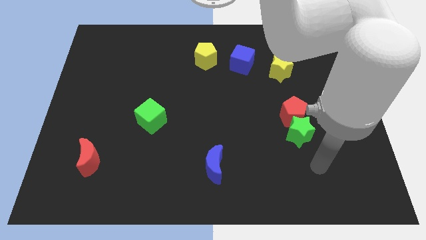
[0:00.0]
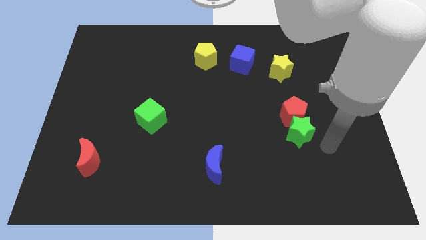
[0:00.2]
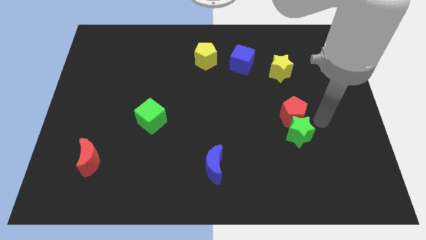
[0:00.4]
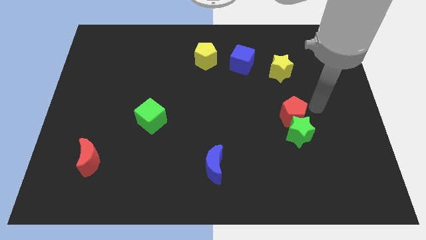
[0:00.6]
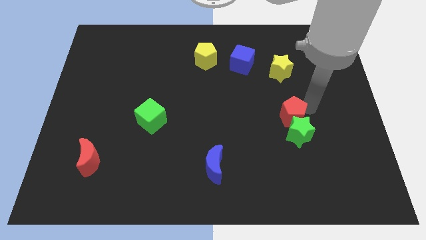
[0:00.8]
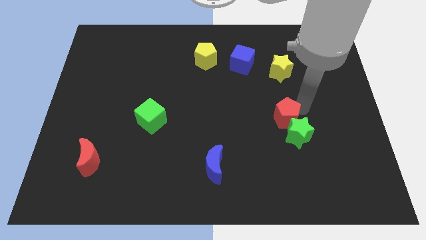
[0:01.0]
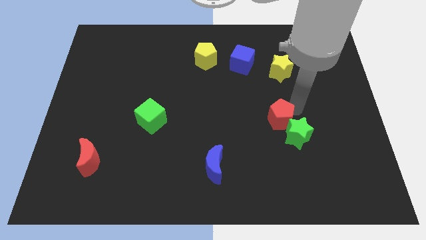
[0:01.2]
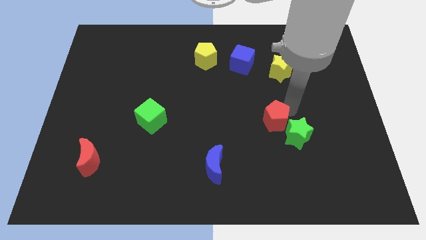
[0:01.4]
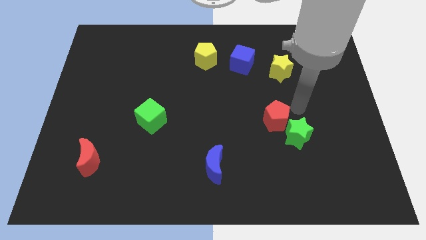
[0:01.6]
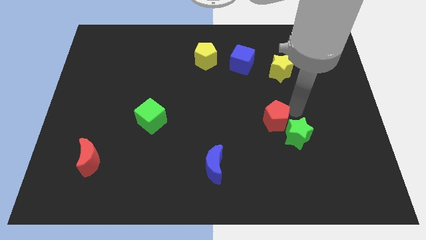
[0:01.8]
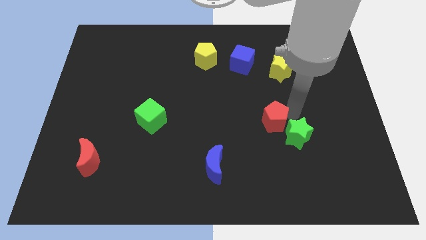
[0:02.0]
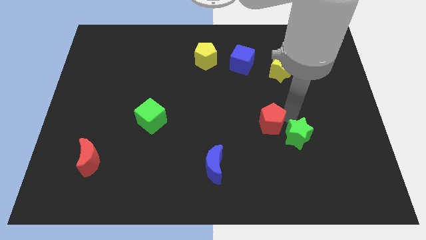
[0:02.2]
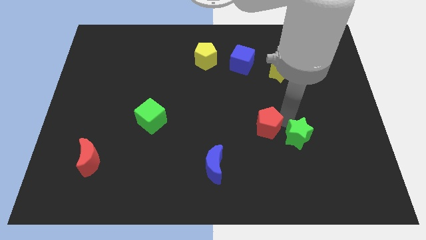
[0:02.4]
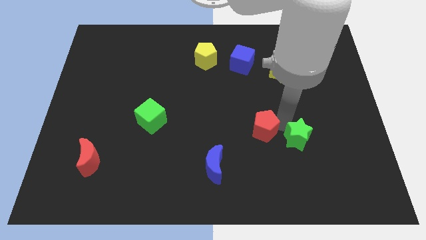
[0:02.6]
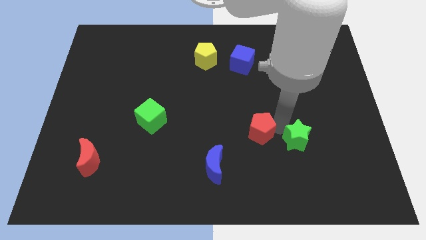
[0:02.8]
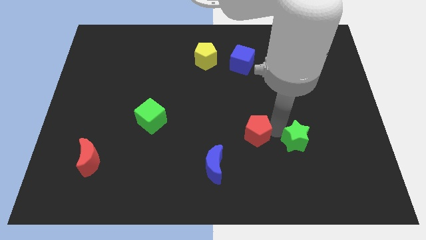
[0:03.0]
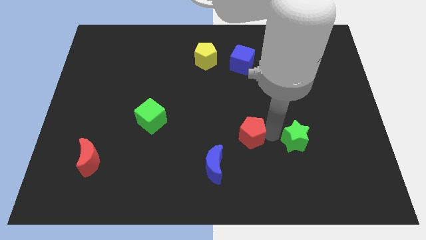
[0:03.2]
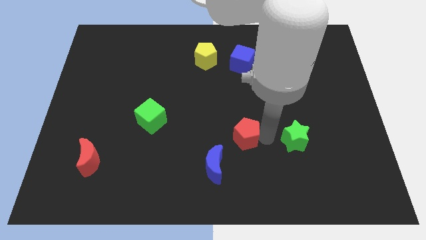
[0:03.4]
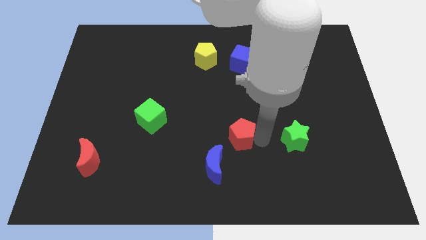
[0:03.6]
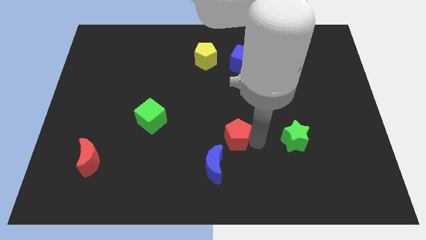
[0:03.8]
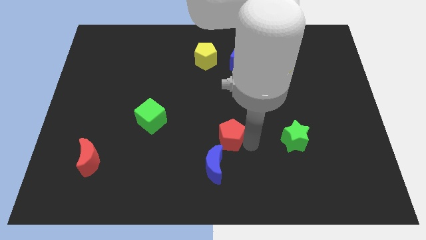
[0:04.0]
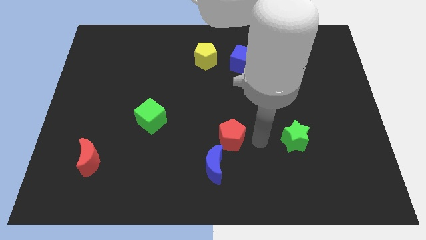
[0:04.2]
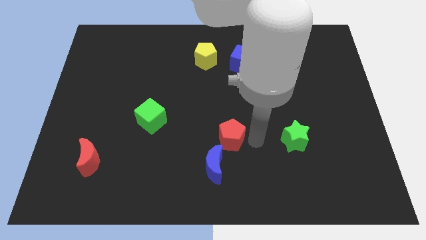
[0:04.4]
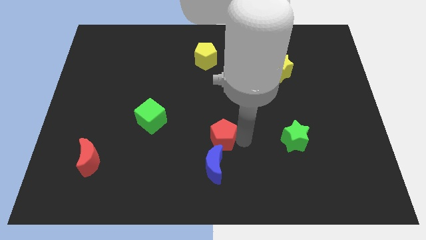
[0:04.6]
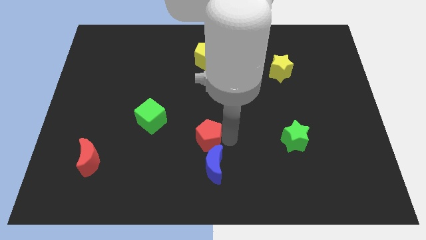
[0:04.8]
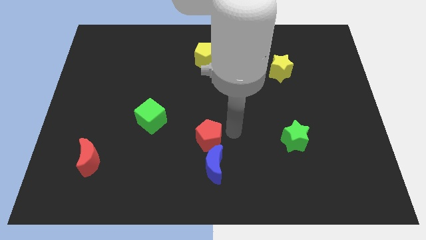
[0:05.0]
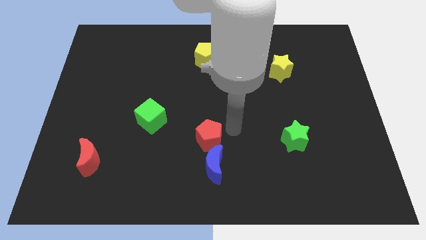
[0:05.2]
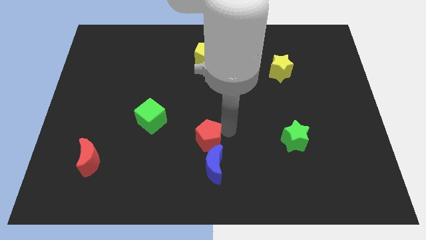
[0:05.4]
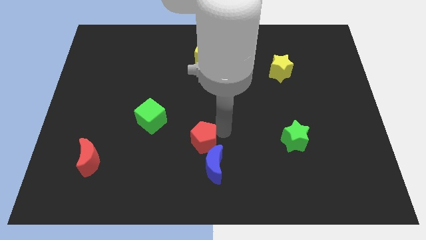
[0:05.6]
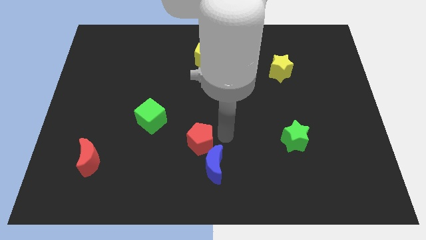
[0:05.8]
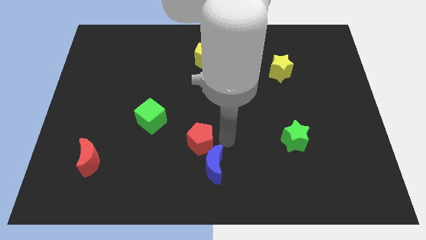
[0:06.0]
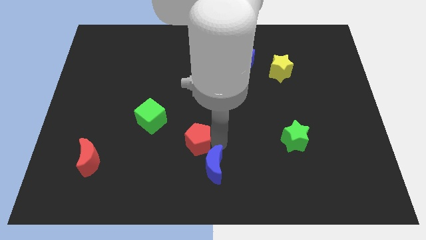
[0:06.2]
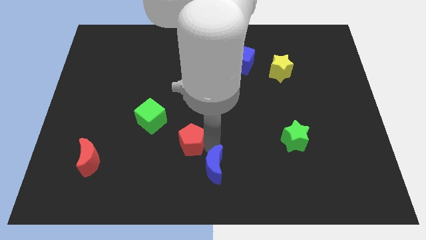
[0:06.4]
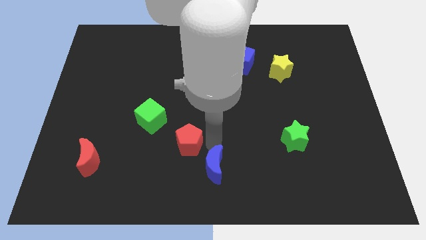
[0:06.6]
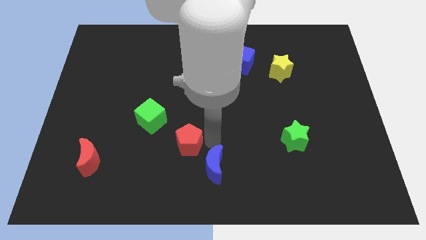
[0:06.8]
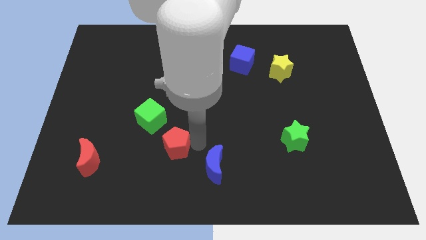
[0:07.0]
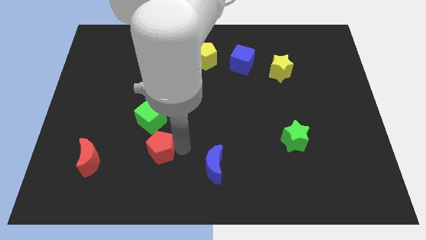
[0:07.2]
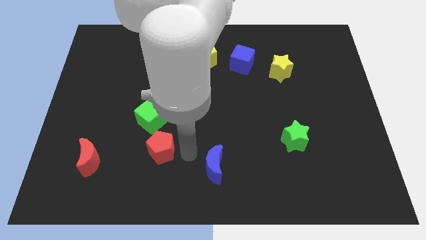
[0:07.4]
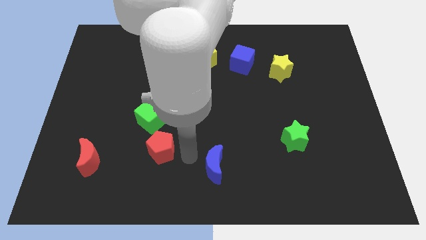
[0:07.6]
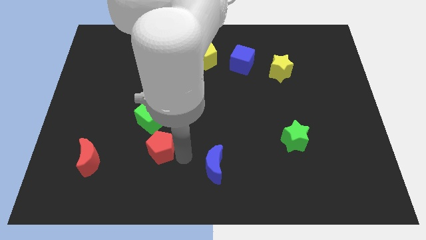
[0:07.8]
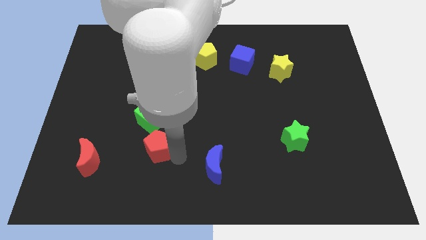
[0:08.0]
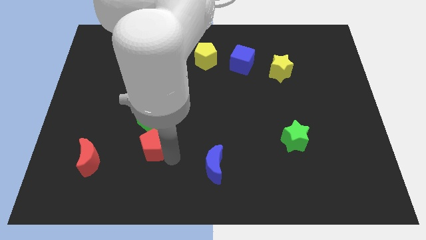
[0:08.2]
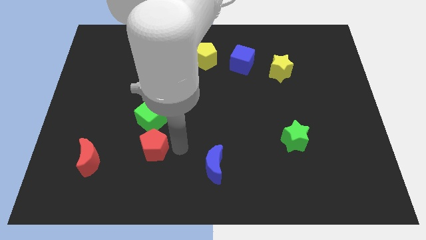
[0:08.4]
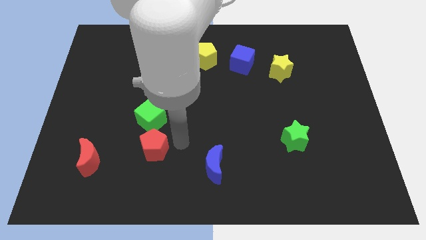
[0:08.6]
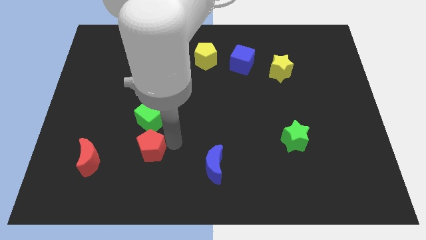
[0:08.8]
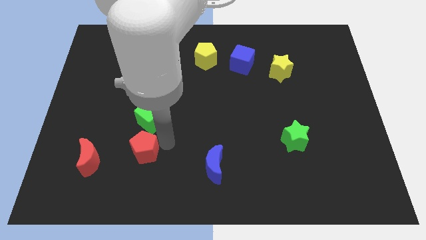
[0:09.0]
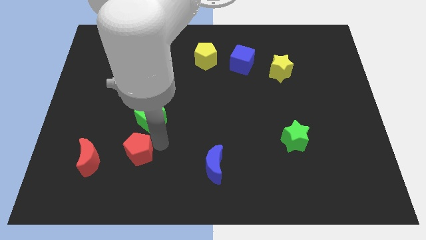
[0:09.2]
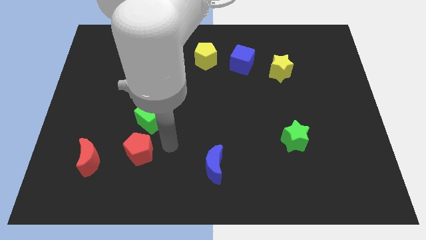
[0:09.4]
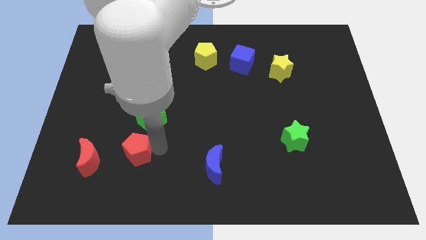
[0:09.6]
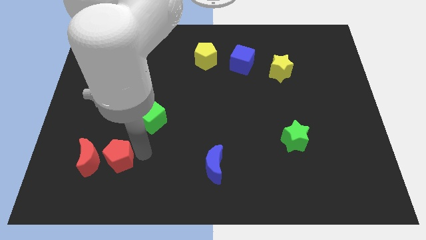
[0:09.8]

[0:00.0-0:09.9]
slide the red pentagon to the red moon

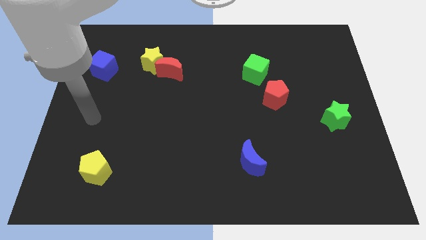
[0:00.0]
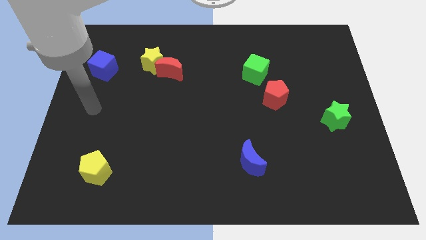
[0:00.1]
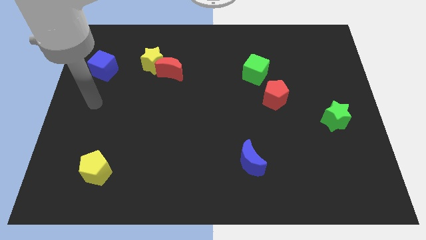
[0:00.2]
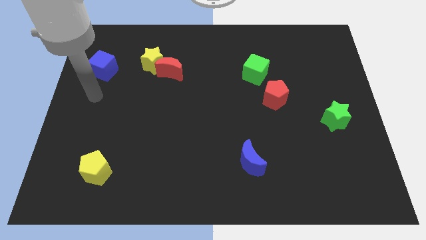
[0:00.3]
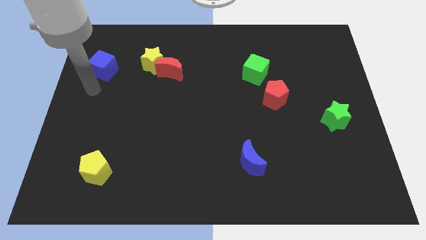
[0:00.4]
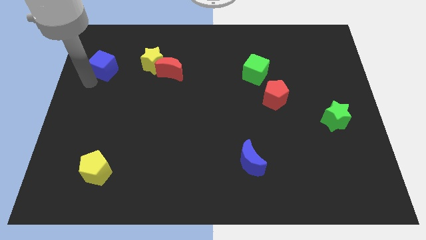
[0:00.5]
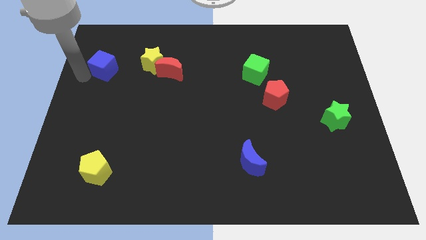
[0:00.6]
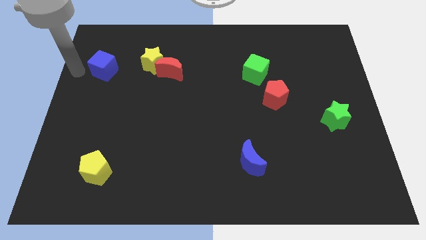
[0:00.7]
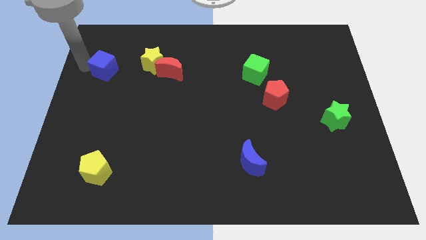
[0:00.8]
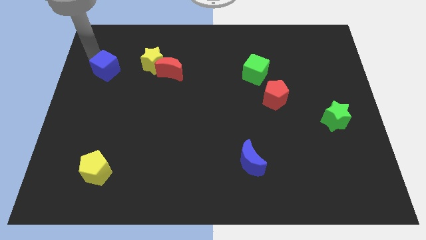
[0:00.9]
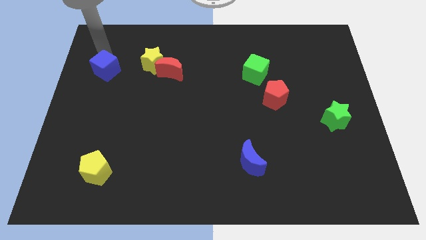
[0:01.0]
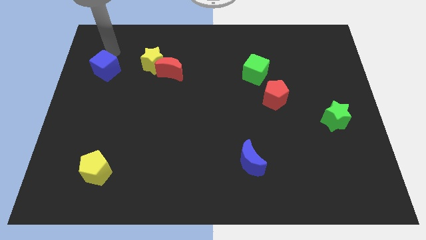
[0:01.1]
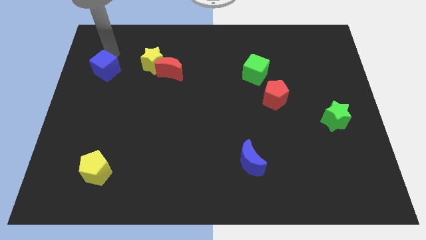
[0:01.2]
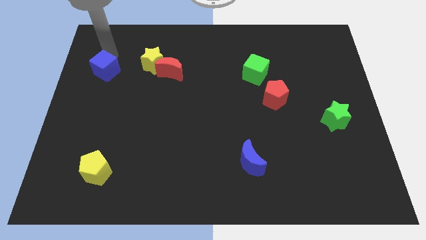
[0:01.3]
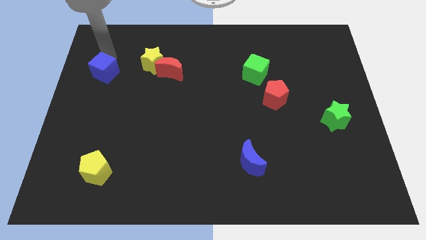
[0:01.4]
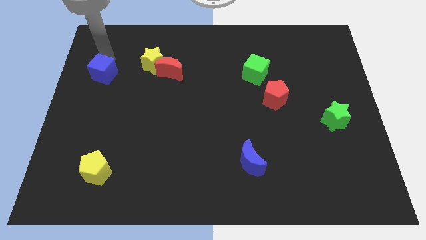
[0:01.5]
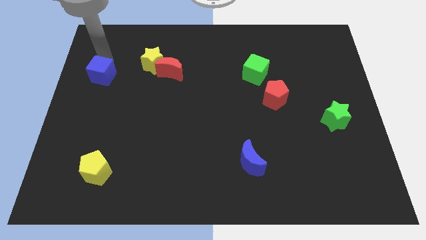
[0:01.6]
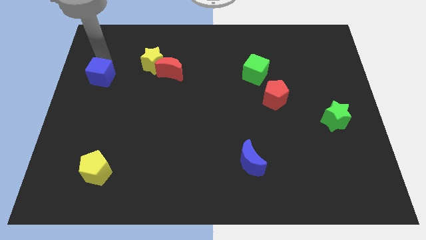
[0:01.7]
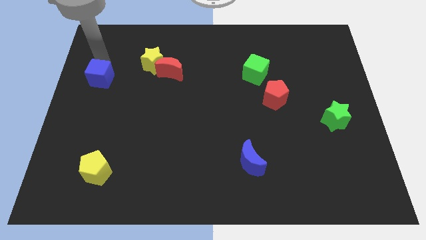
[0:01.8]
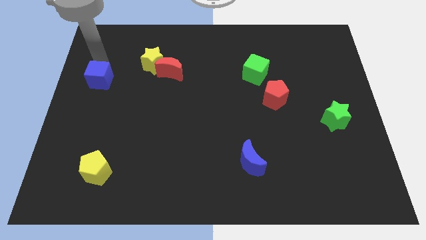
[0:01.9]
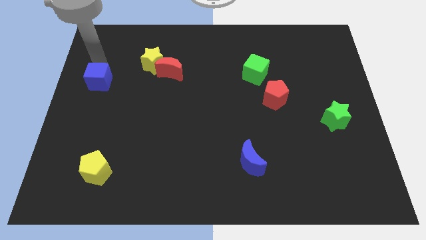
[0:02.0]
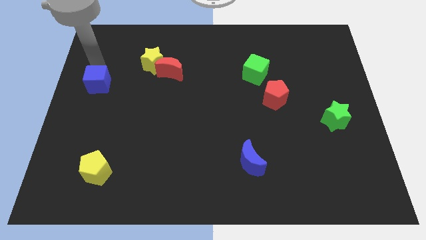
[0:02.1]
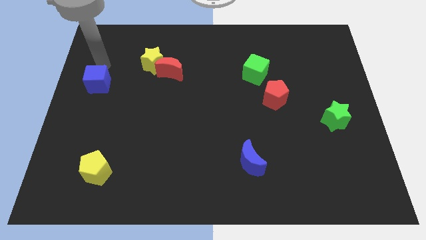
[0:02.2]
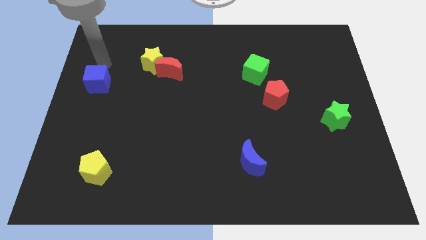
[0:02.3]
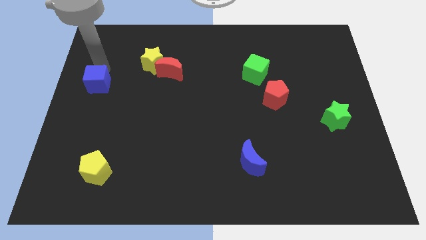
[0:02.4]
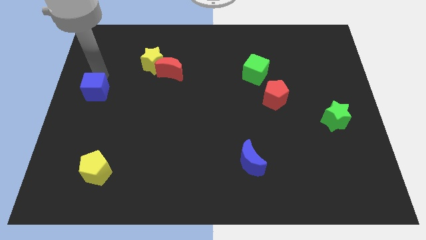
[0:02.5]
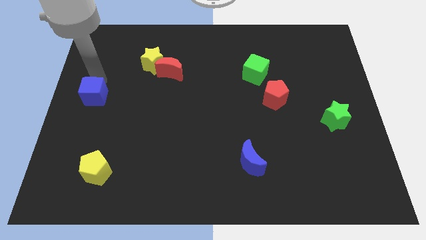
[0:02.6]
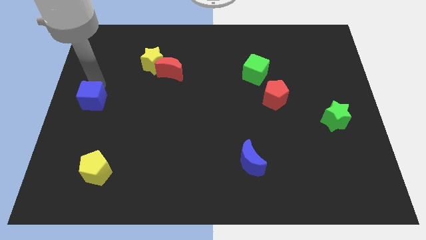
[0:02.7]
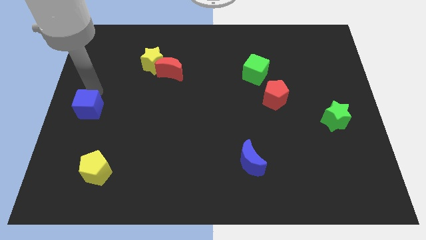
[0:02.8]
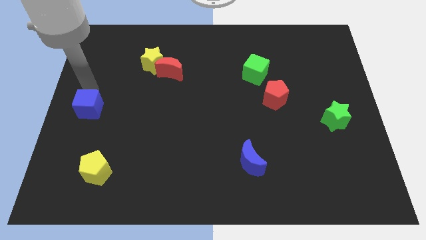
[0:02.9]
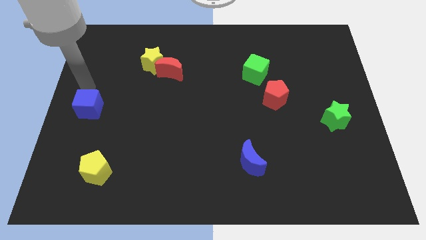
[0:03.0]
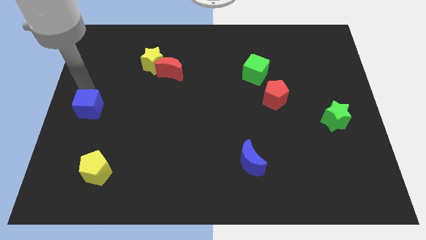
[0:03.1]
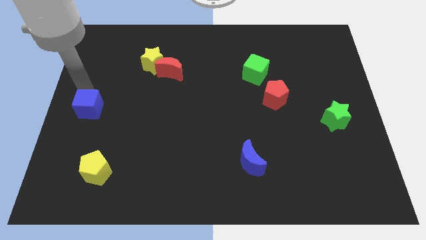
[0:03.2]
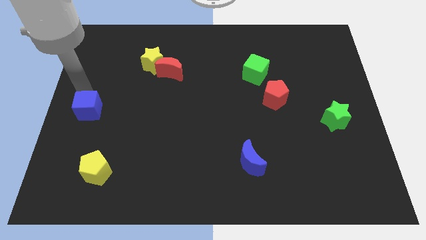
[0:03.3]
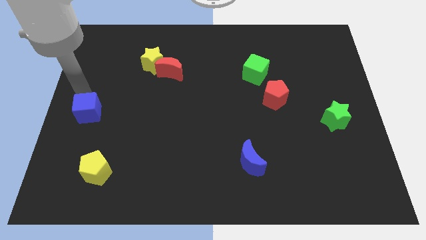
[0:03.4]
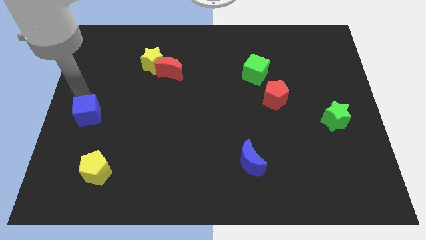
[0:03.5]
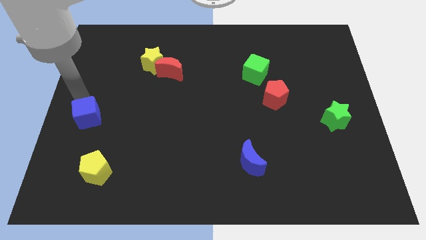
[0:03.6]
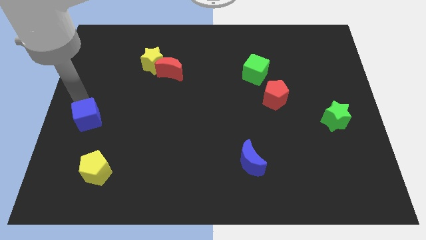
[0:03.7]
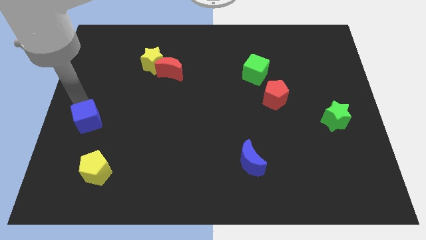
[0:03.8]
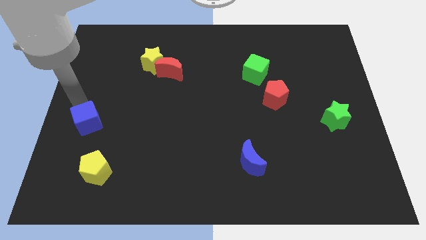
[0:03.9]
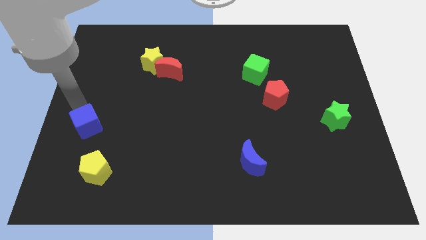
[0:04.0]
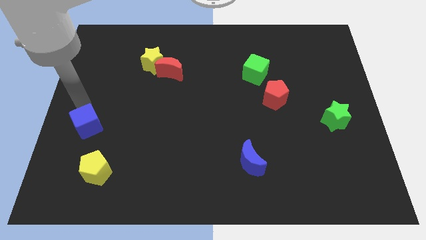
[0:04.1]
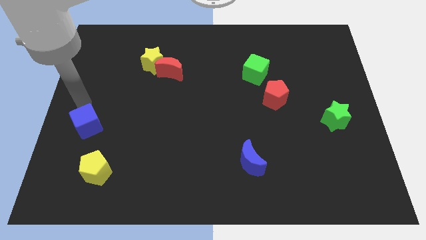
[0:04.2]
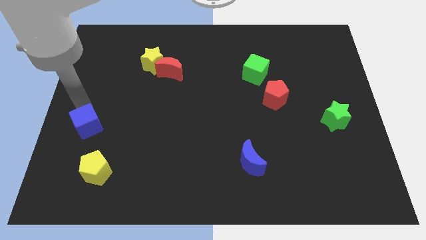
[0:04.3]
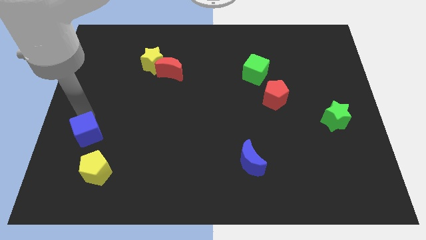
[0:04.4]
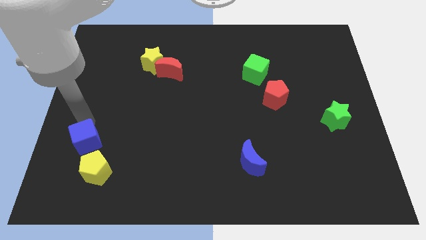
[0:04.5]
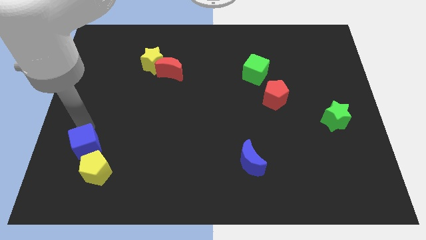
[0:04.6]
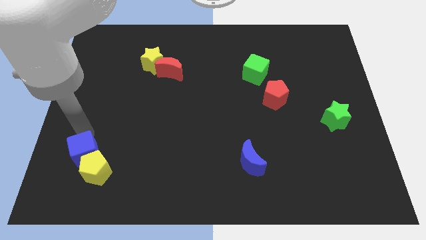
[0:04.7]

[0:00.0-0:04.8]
push the blue cube to the yellow pentagon
